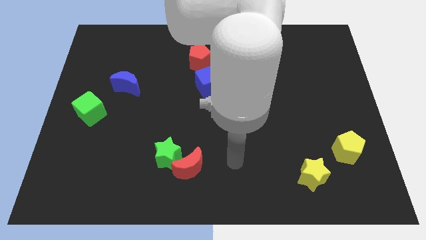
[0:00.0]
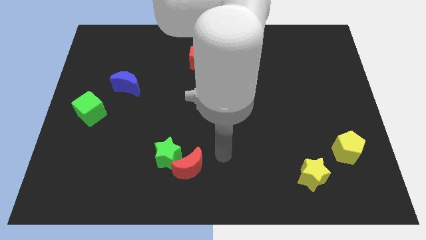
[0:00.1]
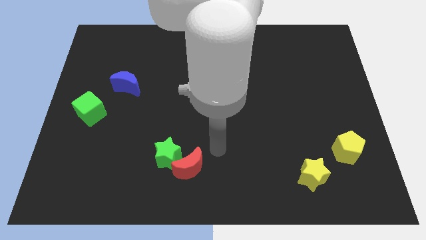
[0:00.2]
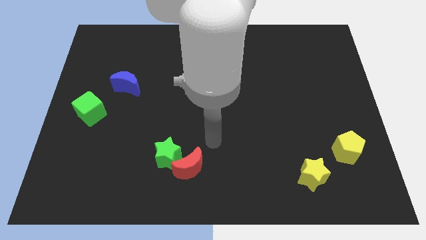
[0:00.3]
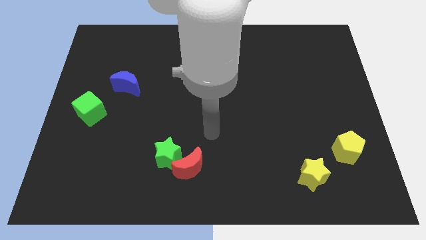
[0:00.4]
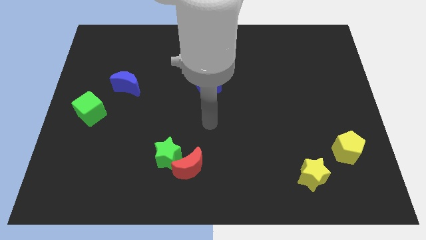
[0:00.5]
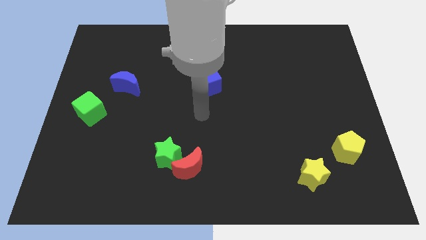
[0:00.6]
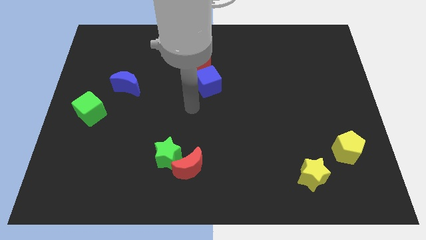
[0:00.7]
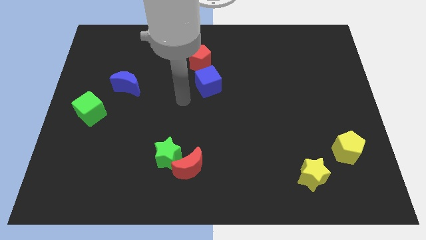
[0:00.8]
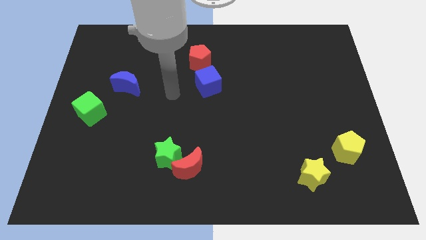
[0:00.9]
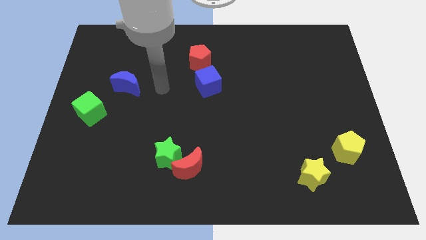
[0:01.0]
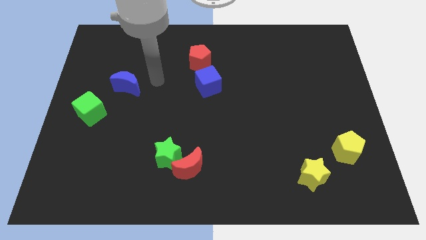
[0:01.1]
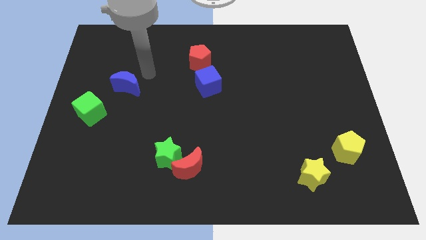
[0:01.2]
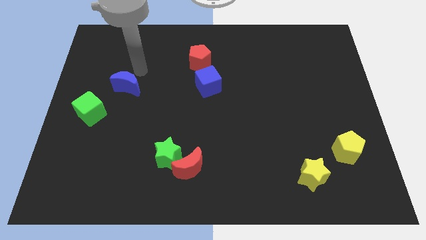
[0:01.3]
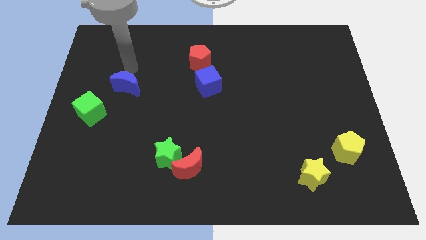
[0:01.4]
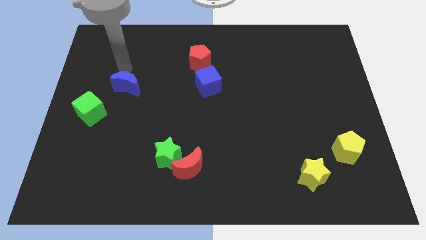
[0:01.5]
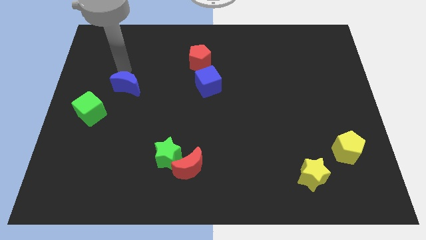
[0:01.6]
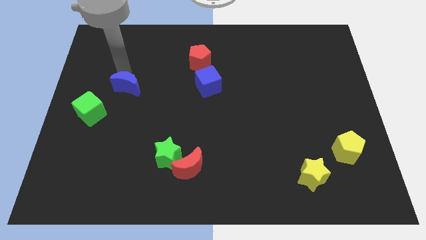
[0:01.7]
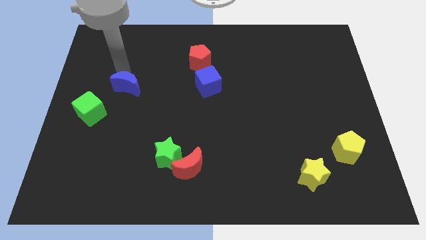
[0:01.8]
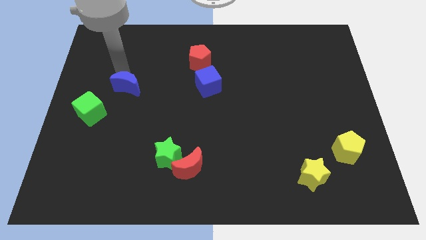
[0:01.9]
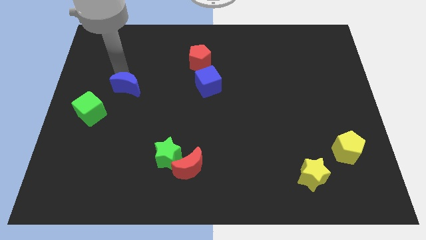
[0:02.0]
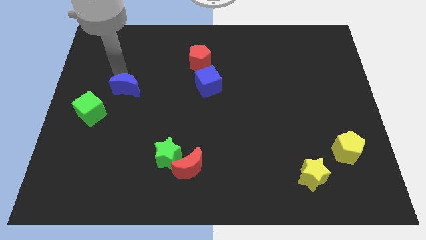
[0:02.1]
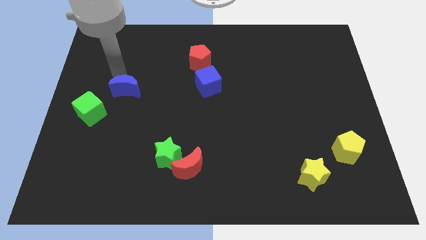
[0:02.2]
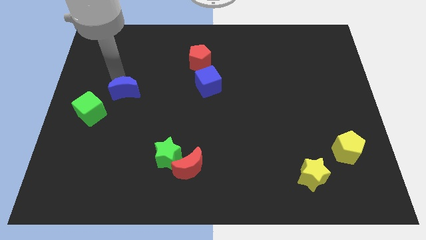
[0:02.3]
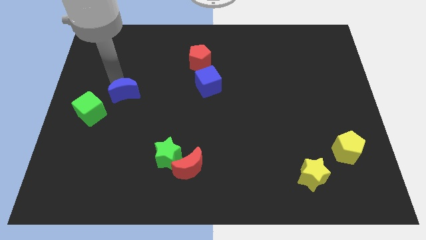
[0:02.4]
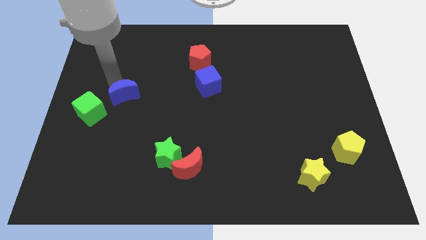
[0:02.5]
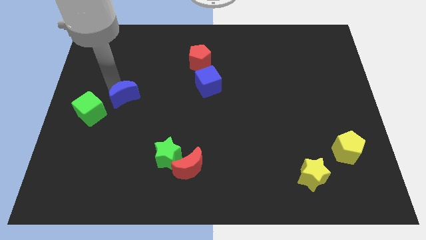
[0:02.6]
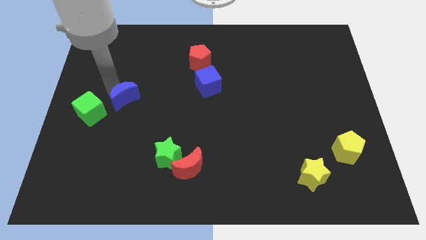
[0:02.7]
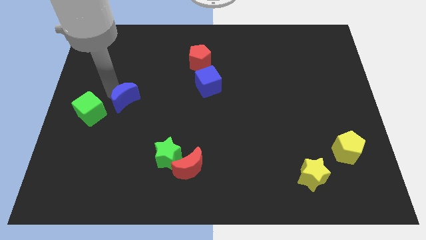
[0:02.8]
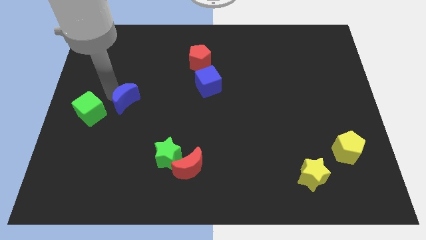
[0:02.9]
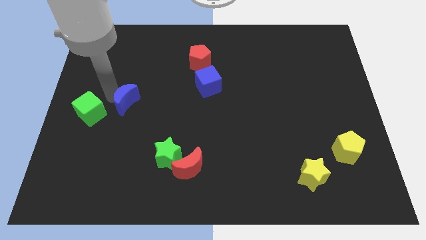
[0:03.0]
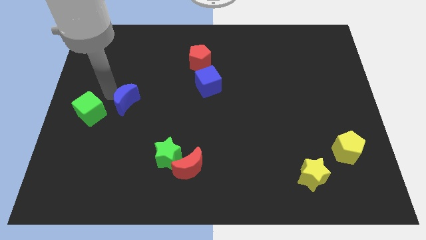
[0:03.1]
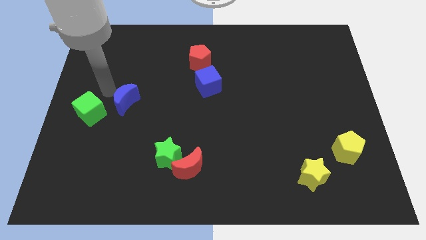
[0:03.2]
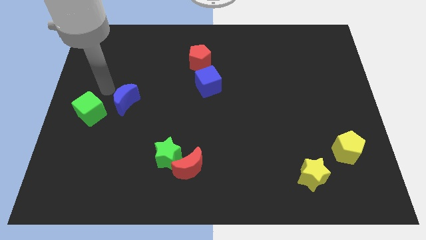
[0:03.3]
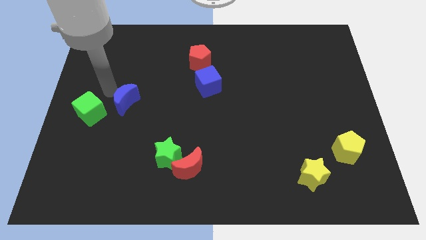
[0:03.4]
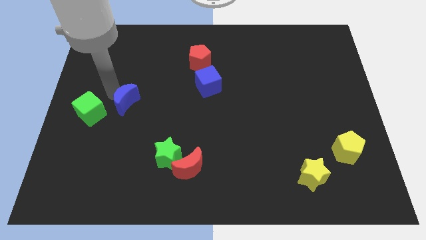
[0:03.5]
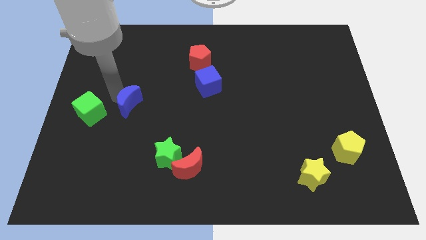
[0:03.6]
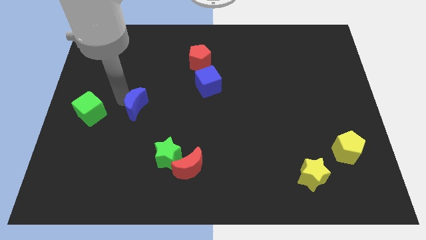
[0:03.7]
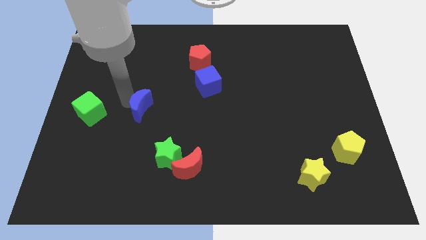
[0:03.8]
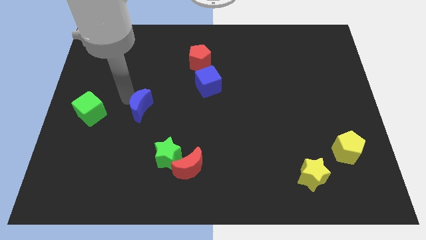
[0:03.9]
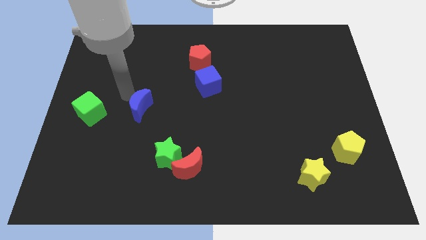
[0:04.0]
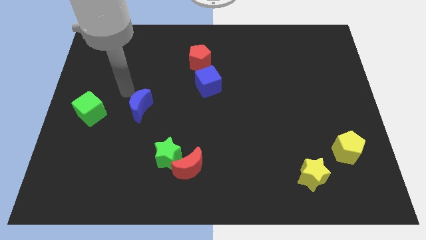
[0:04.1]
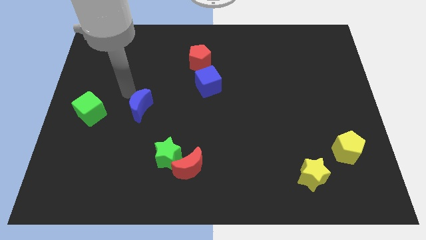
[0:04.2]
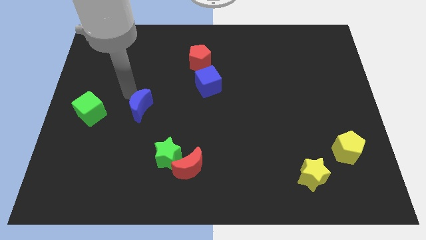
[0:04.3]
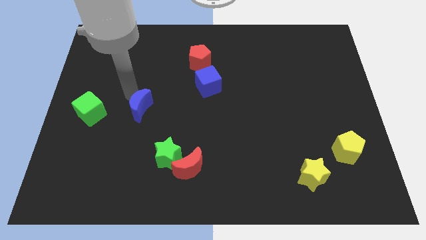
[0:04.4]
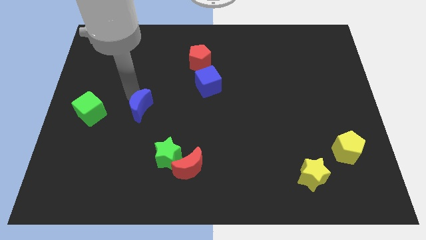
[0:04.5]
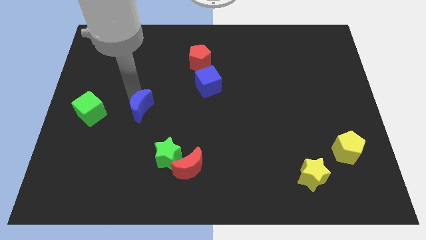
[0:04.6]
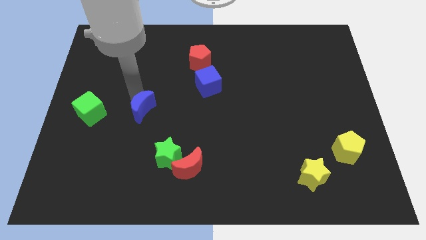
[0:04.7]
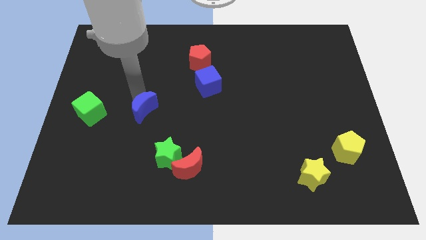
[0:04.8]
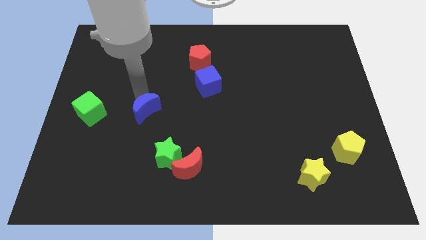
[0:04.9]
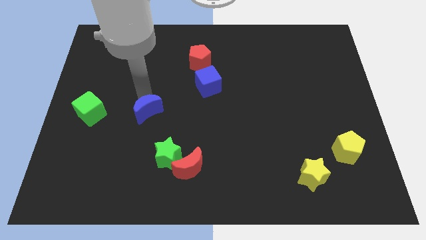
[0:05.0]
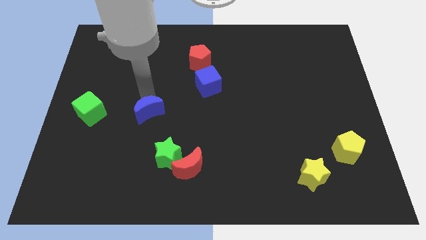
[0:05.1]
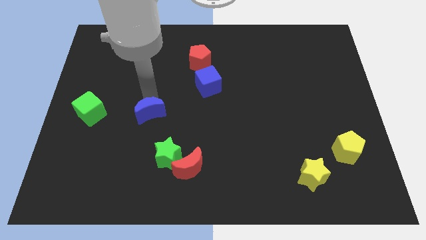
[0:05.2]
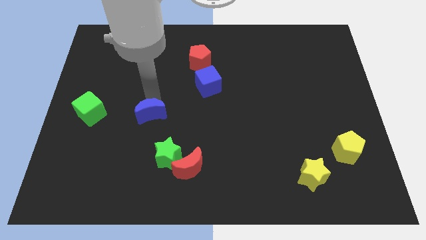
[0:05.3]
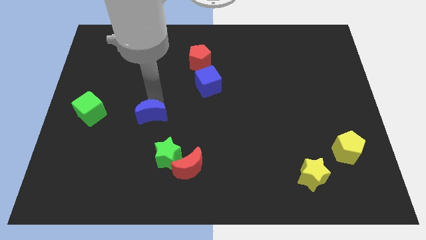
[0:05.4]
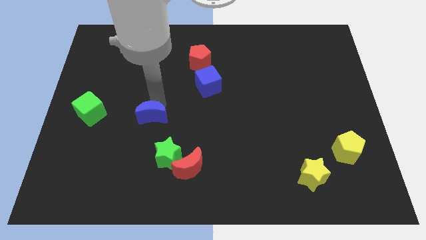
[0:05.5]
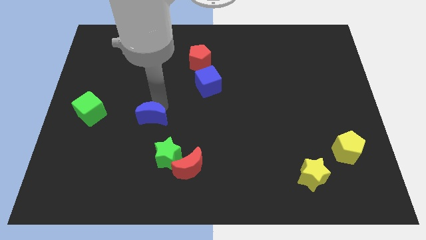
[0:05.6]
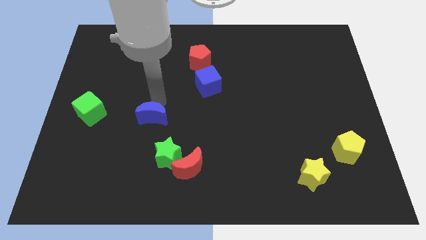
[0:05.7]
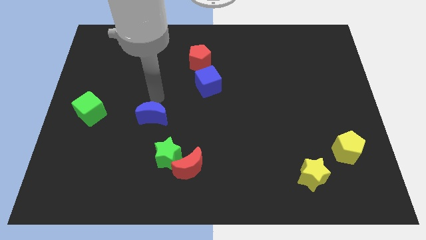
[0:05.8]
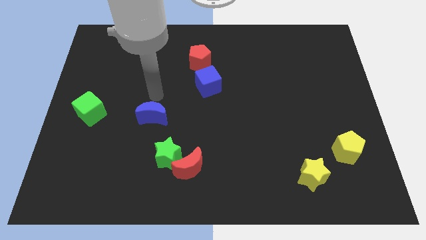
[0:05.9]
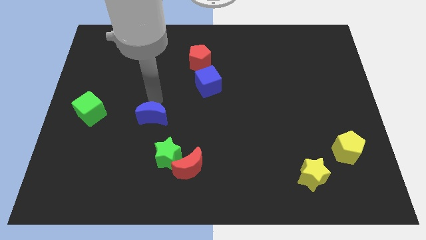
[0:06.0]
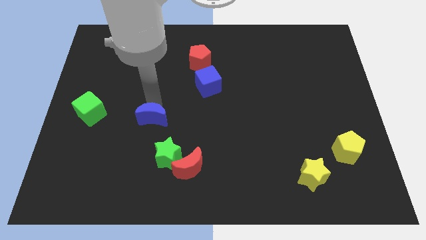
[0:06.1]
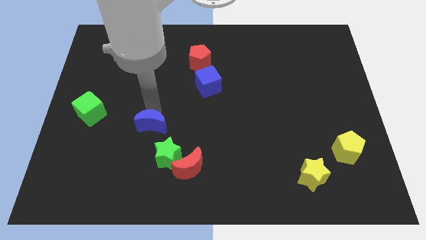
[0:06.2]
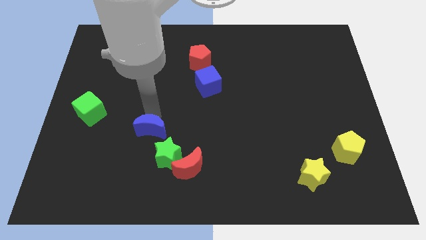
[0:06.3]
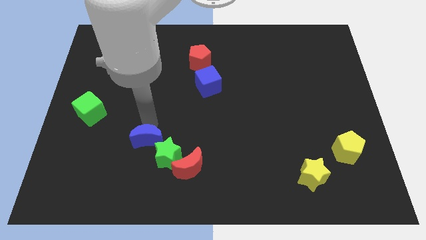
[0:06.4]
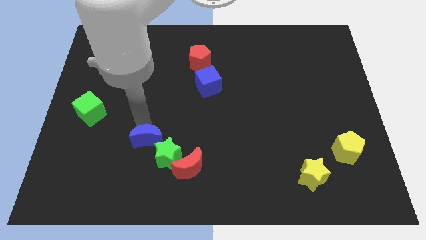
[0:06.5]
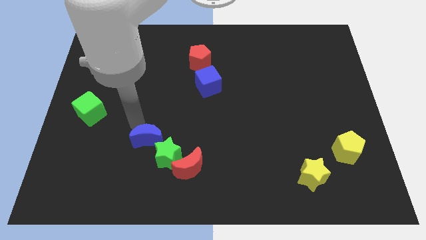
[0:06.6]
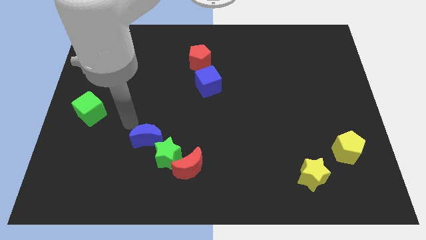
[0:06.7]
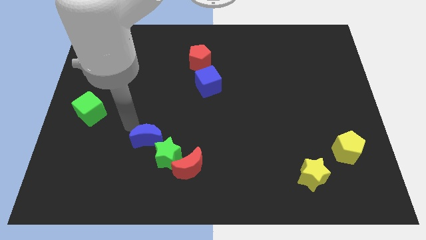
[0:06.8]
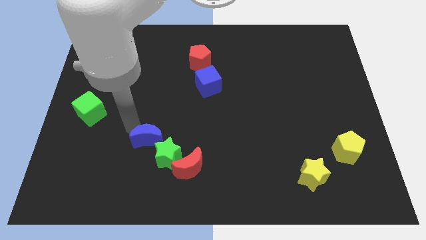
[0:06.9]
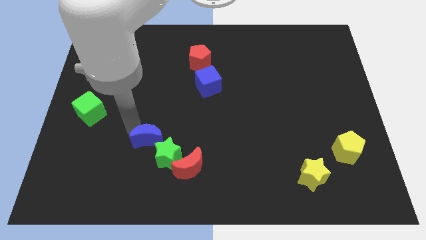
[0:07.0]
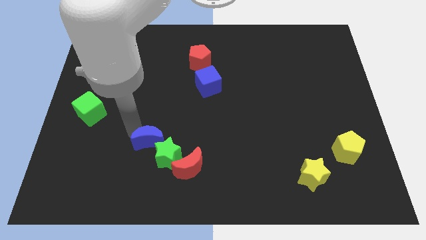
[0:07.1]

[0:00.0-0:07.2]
put the blue moon towards the green star
